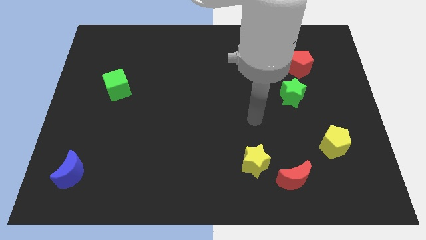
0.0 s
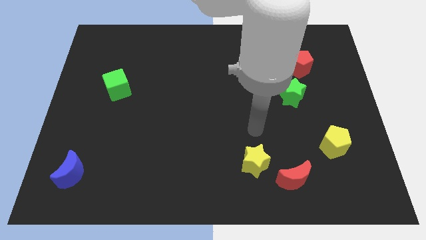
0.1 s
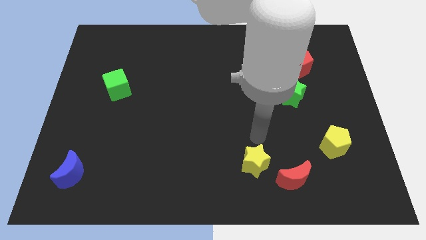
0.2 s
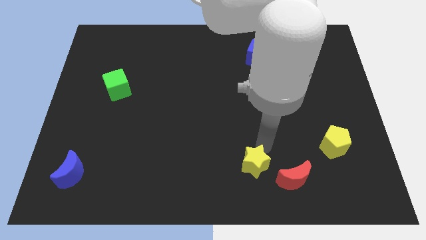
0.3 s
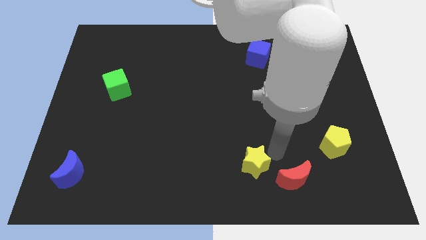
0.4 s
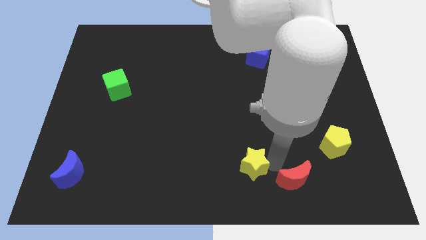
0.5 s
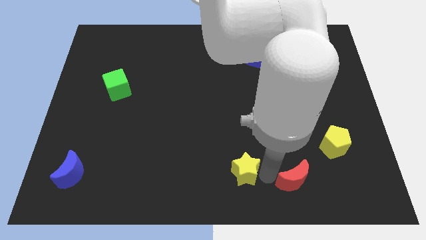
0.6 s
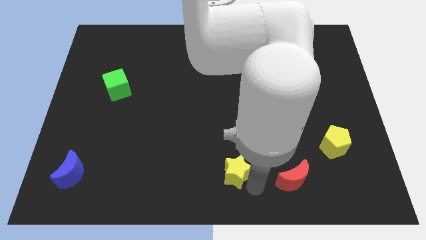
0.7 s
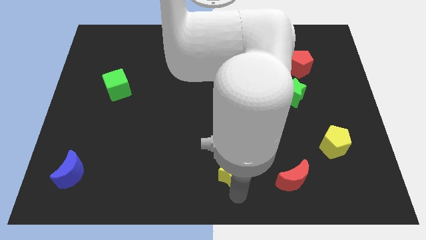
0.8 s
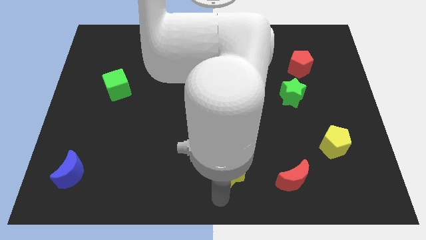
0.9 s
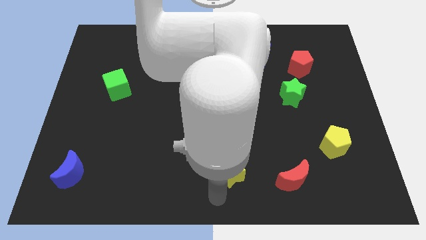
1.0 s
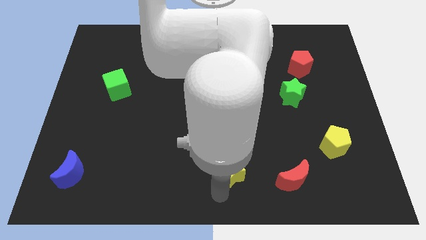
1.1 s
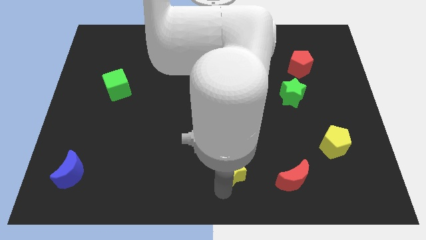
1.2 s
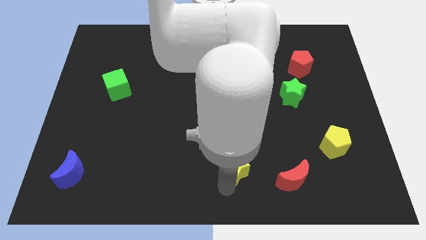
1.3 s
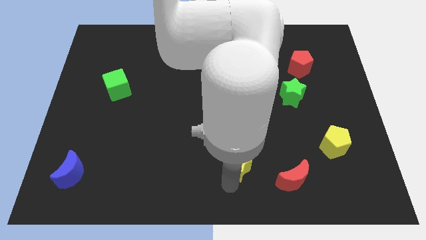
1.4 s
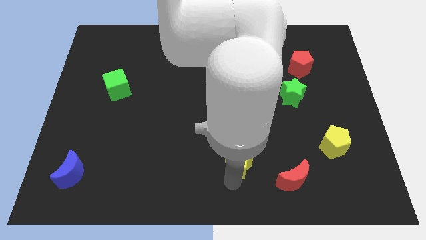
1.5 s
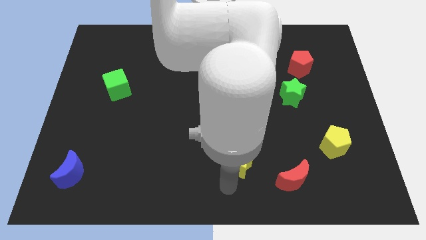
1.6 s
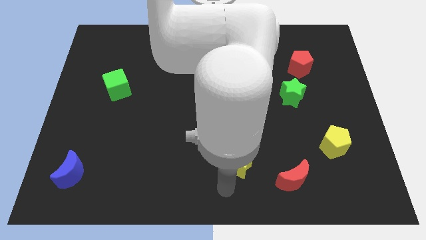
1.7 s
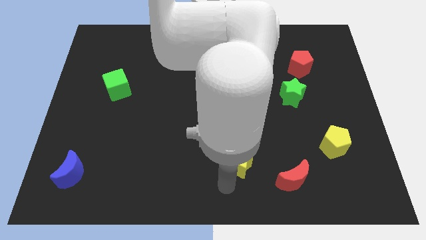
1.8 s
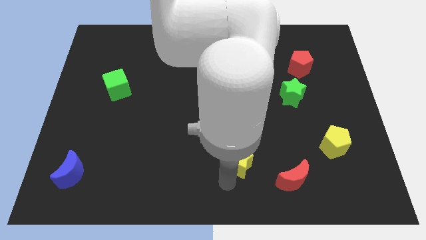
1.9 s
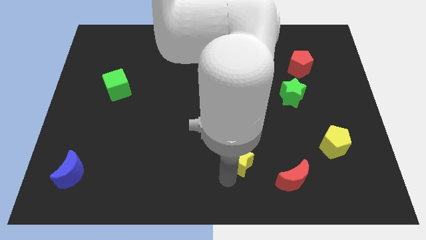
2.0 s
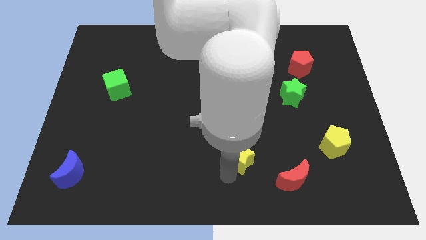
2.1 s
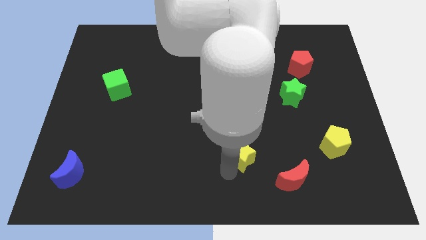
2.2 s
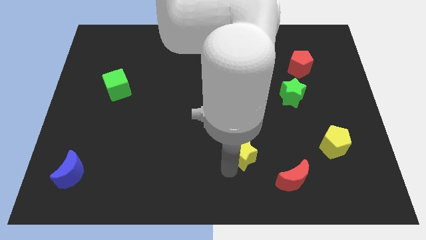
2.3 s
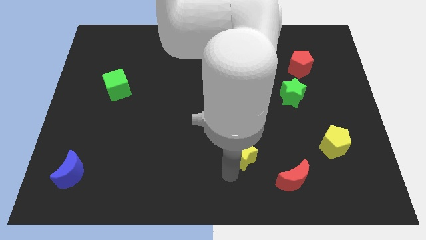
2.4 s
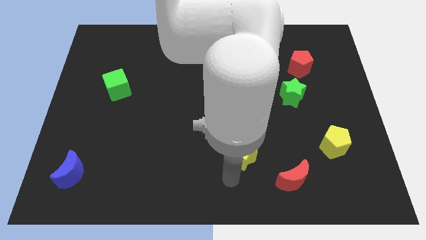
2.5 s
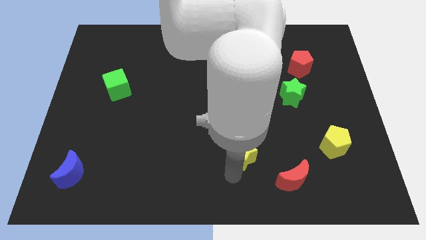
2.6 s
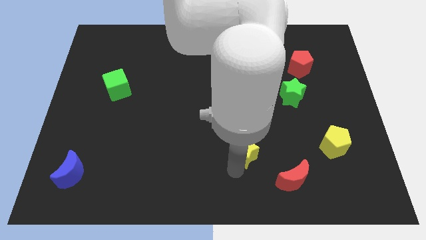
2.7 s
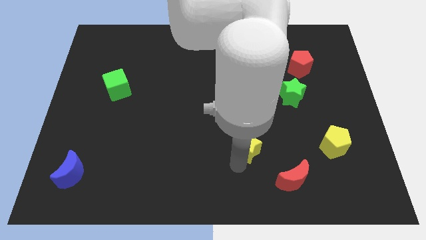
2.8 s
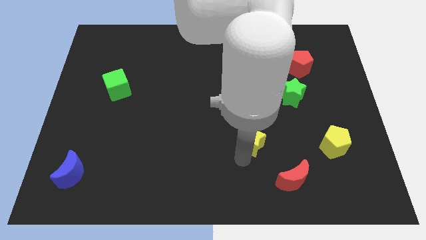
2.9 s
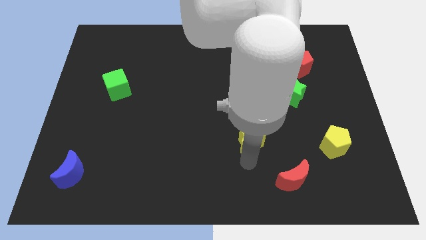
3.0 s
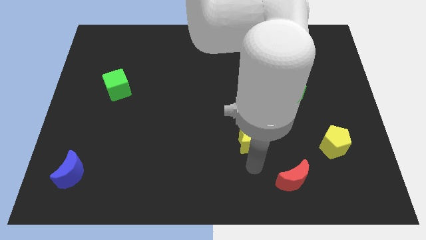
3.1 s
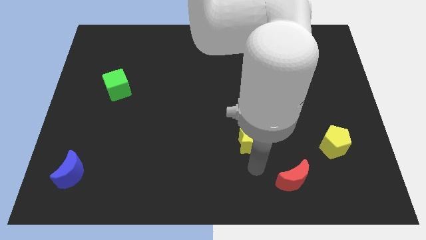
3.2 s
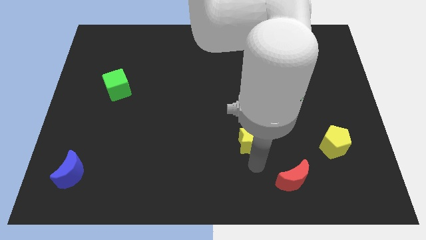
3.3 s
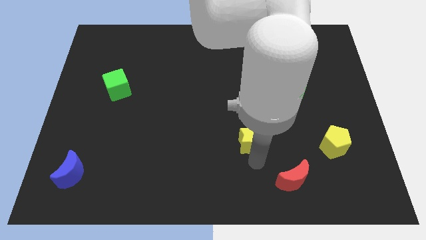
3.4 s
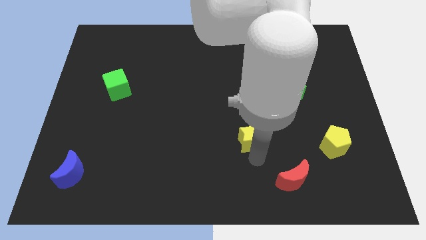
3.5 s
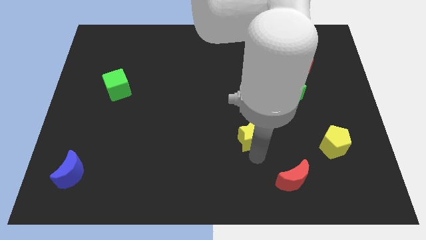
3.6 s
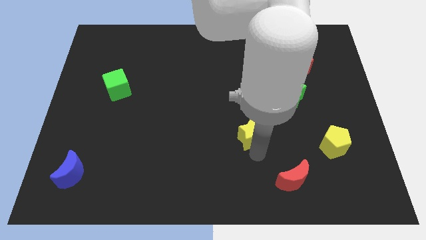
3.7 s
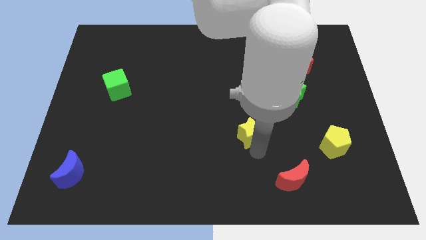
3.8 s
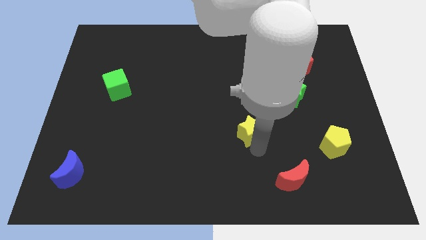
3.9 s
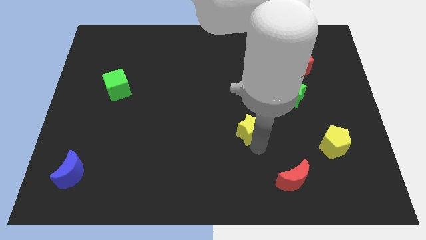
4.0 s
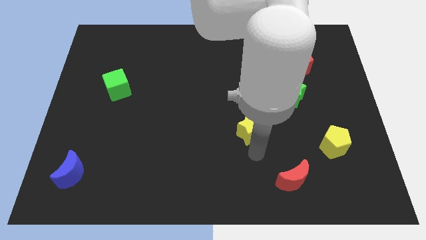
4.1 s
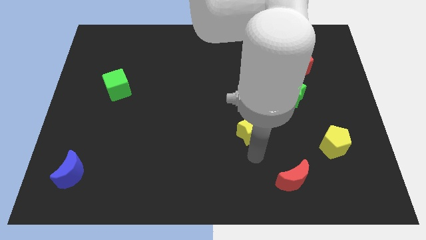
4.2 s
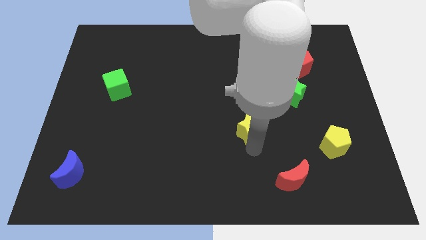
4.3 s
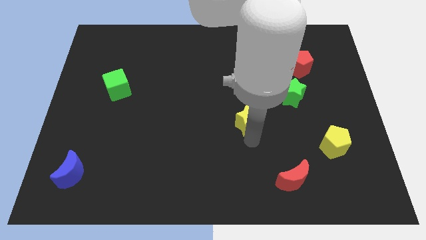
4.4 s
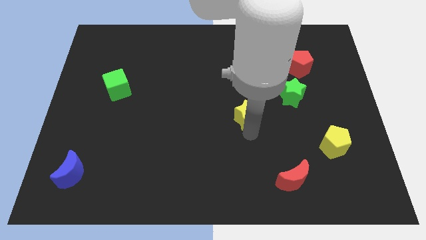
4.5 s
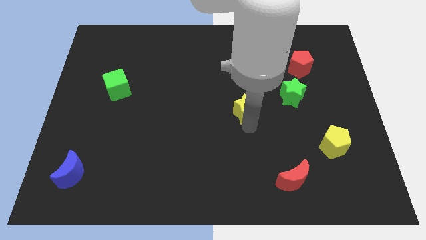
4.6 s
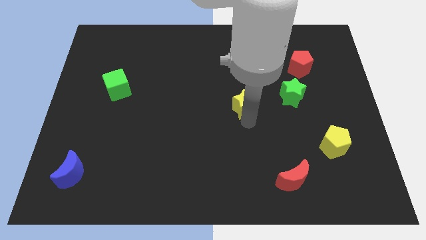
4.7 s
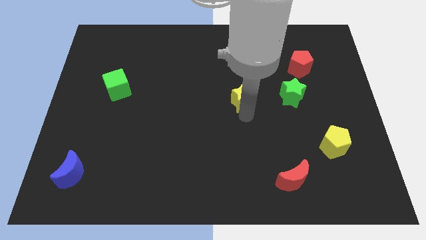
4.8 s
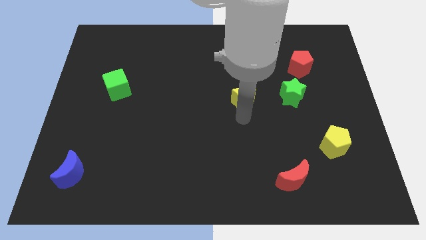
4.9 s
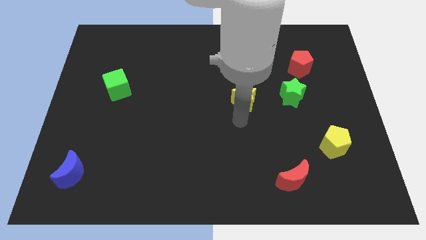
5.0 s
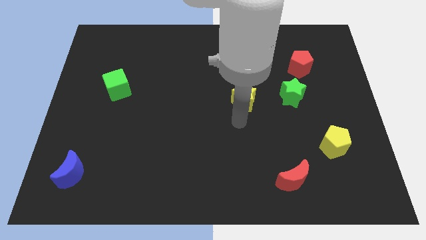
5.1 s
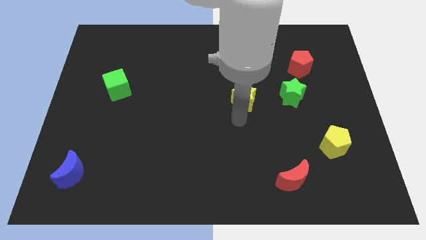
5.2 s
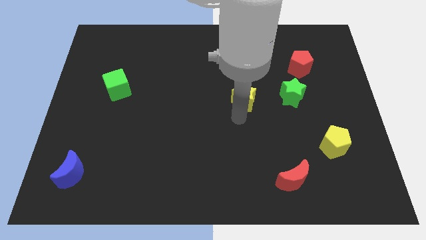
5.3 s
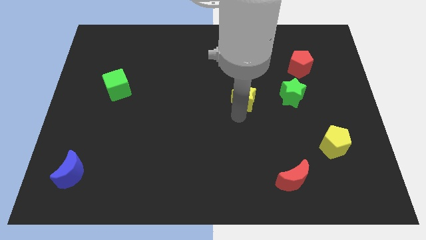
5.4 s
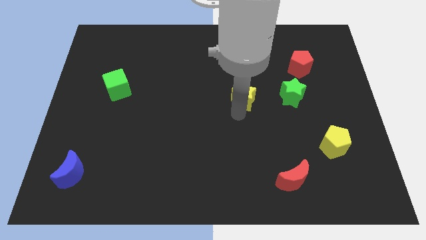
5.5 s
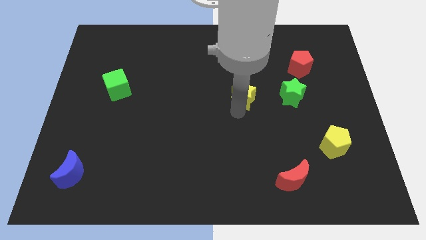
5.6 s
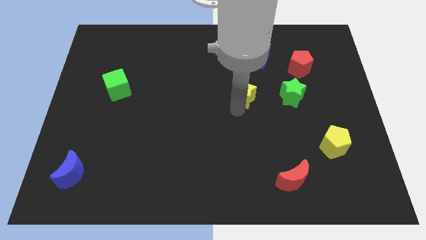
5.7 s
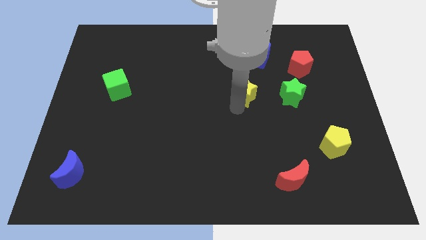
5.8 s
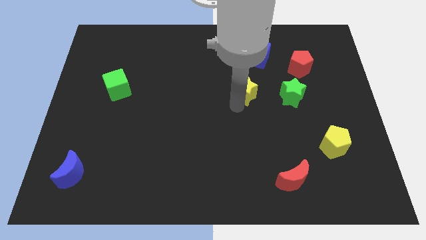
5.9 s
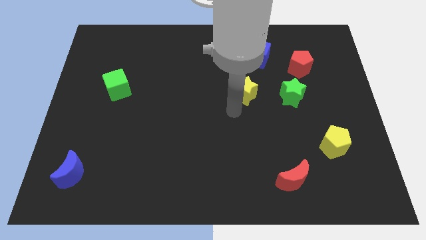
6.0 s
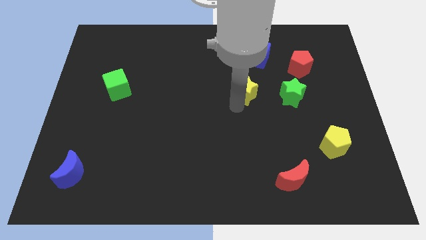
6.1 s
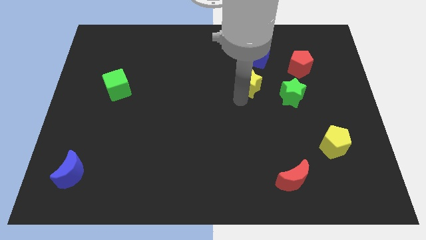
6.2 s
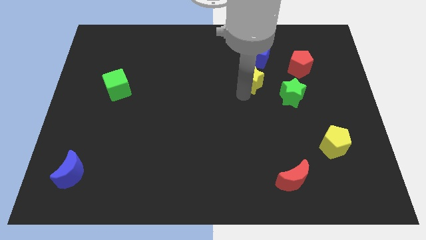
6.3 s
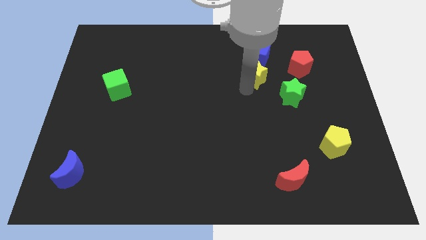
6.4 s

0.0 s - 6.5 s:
put the yellow star left of the red pentagon

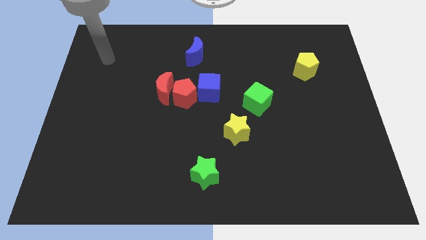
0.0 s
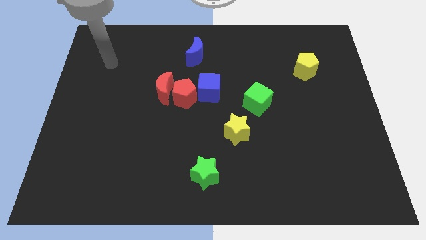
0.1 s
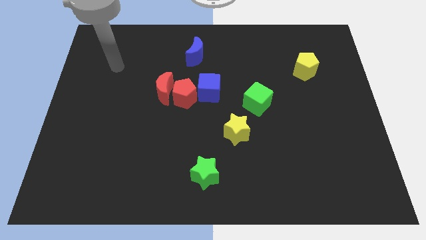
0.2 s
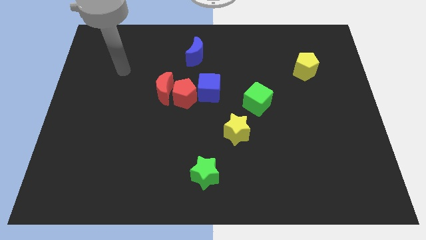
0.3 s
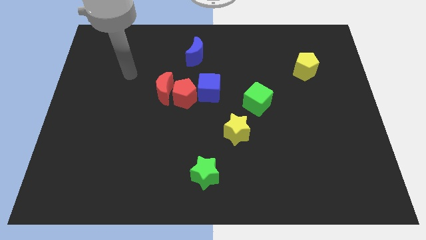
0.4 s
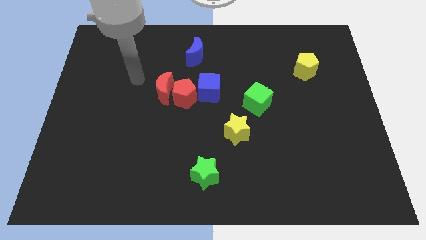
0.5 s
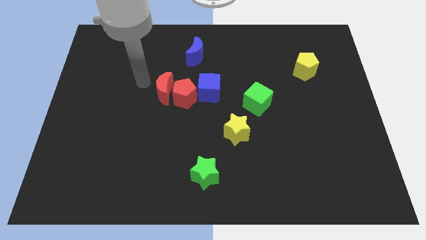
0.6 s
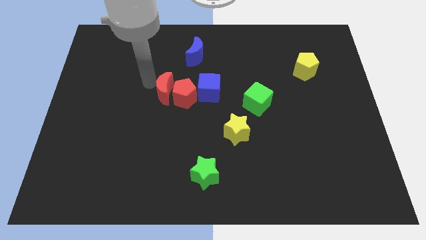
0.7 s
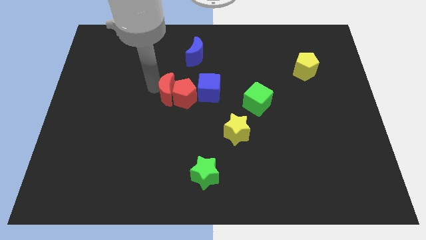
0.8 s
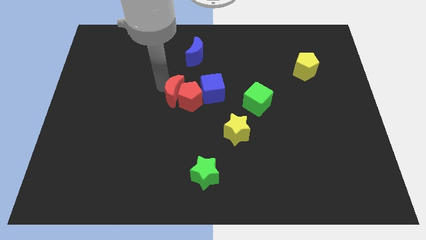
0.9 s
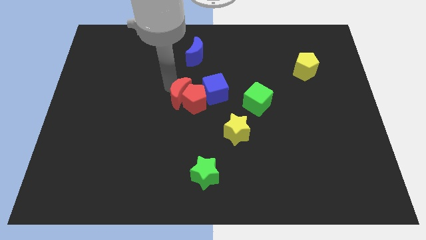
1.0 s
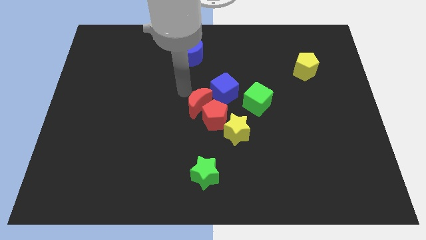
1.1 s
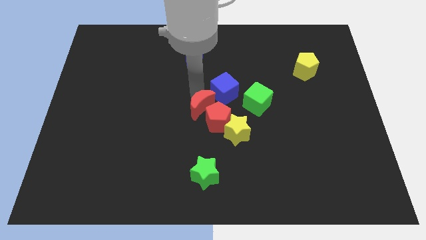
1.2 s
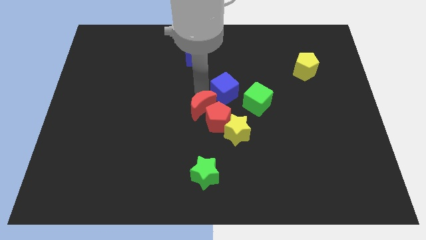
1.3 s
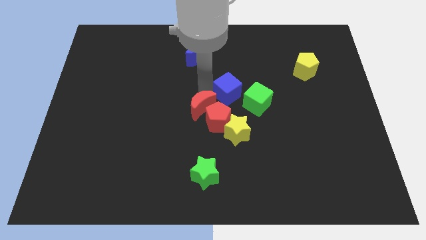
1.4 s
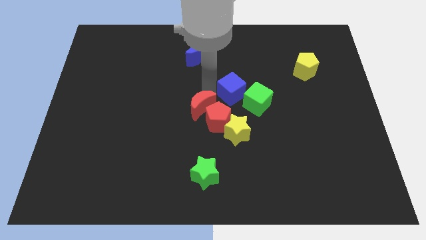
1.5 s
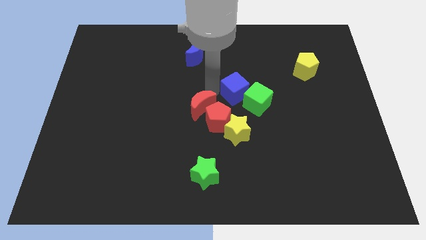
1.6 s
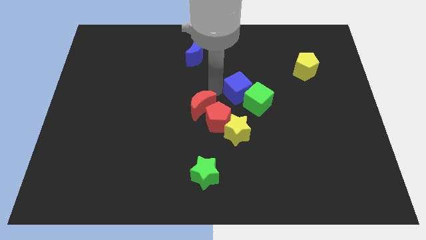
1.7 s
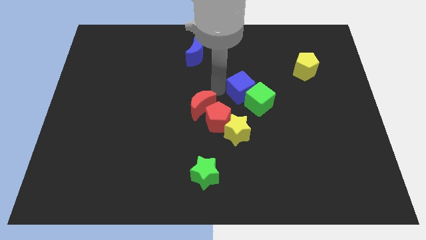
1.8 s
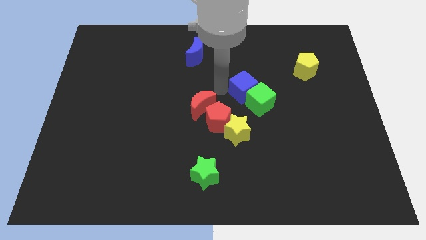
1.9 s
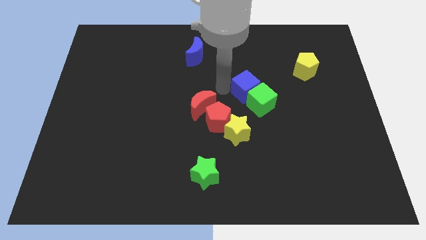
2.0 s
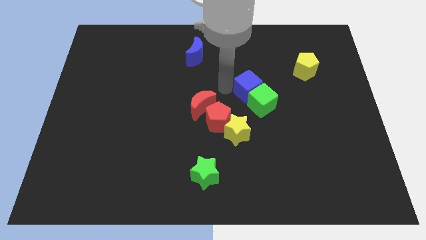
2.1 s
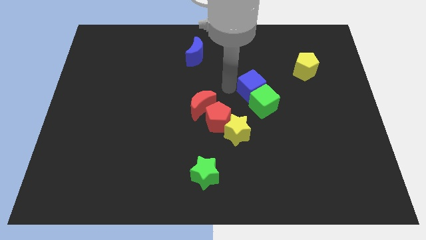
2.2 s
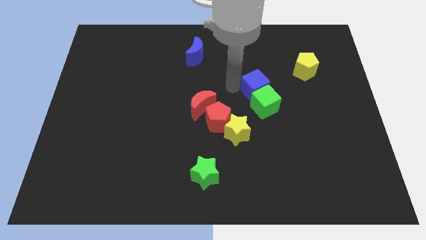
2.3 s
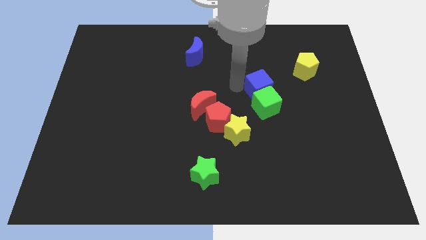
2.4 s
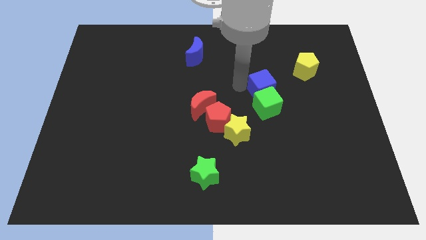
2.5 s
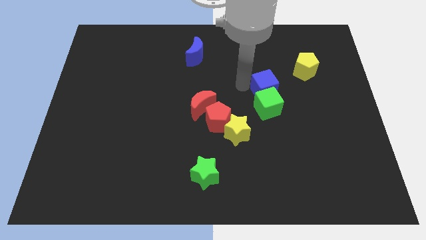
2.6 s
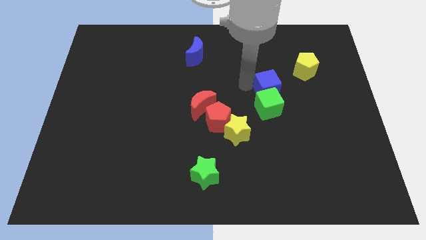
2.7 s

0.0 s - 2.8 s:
put the blue cube to the bottom left side of the yellow pentagon
